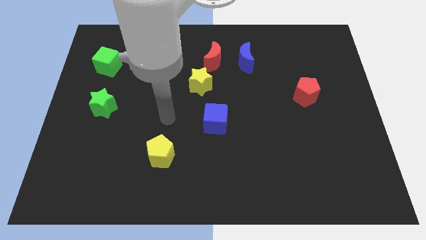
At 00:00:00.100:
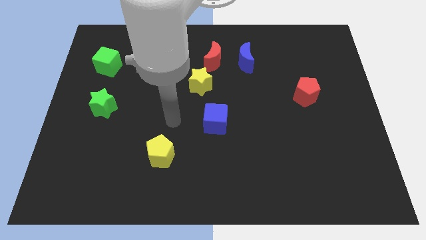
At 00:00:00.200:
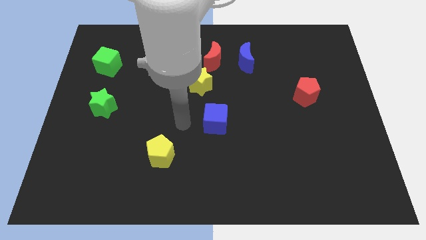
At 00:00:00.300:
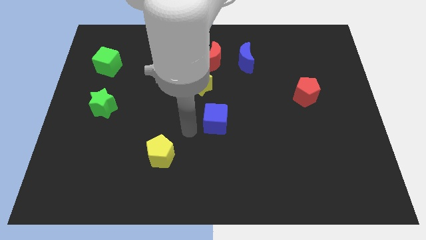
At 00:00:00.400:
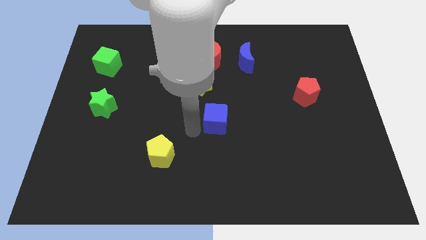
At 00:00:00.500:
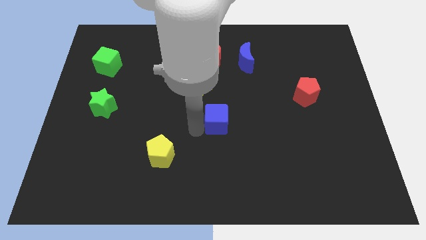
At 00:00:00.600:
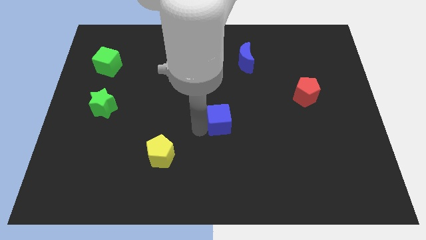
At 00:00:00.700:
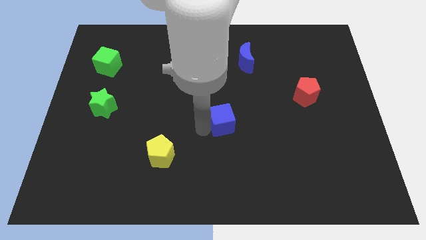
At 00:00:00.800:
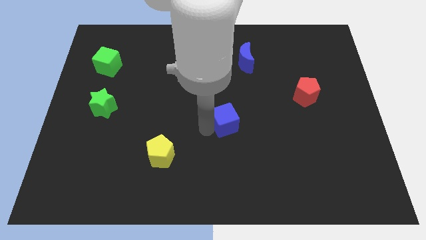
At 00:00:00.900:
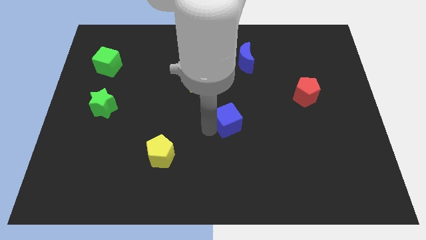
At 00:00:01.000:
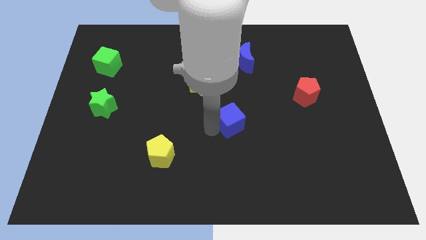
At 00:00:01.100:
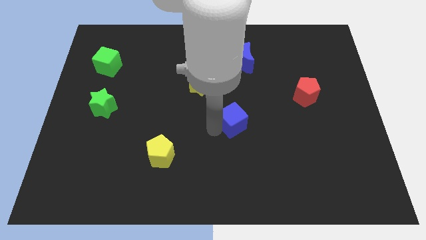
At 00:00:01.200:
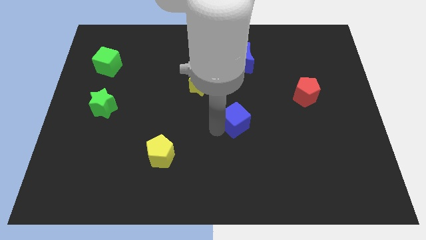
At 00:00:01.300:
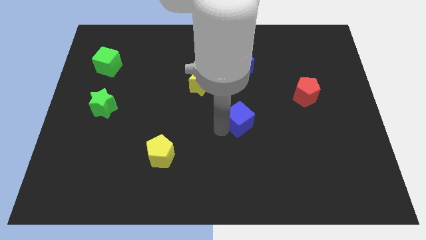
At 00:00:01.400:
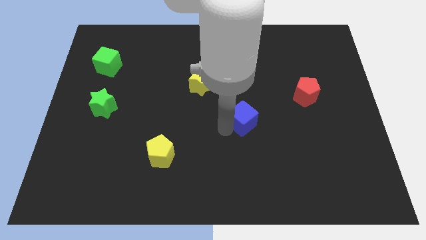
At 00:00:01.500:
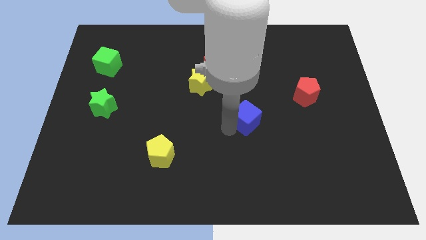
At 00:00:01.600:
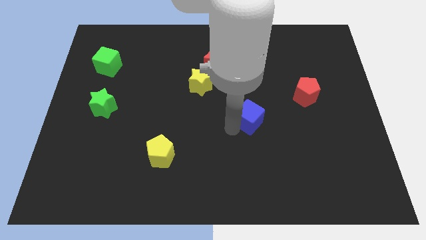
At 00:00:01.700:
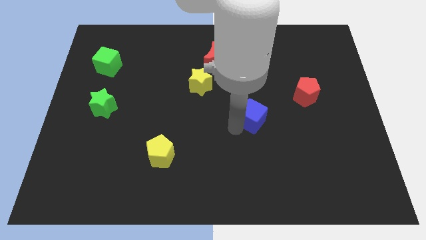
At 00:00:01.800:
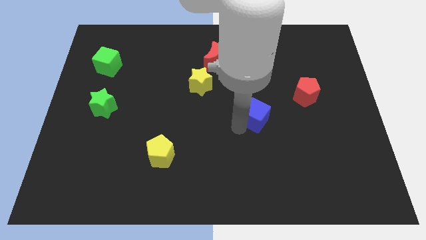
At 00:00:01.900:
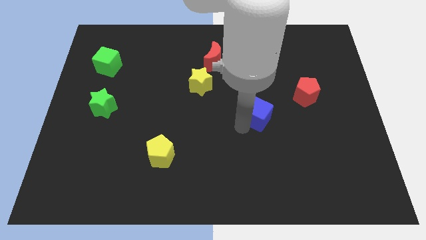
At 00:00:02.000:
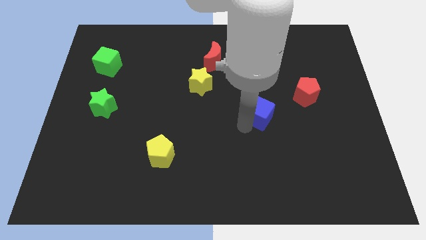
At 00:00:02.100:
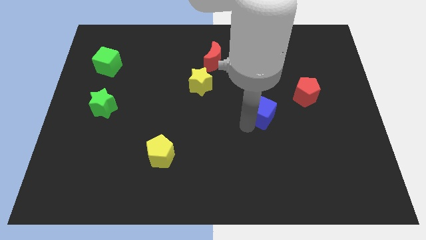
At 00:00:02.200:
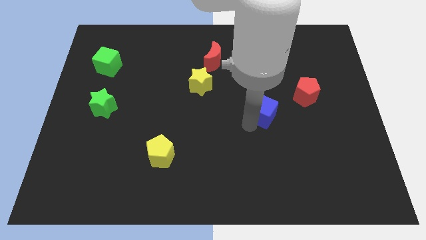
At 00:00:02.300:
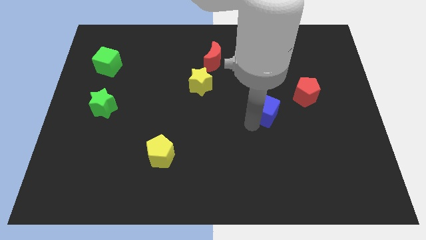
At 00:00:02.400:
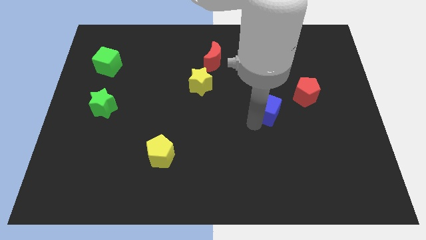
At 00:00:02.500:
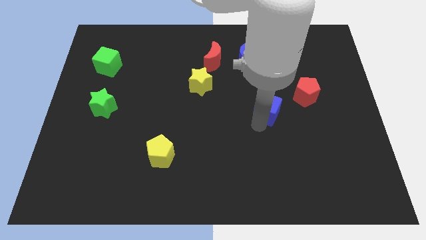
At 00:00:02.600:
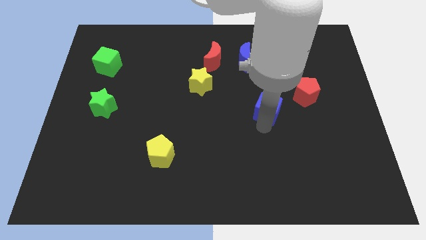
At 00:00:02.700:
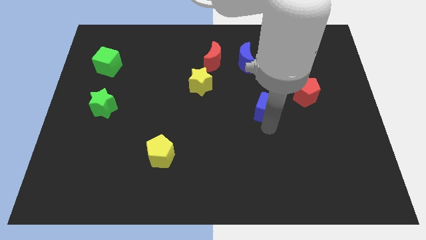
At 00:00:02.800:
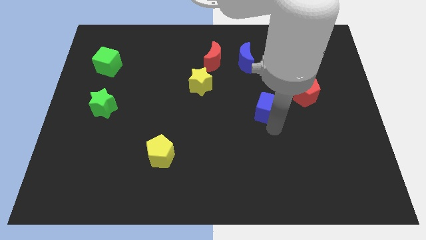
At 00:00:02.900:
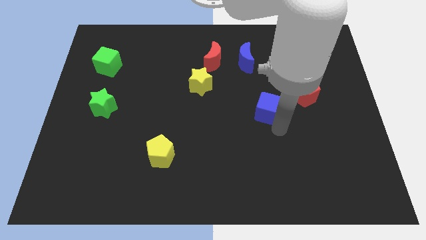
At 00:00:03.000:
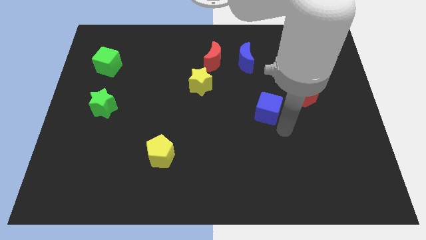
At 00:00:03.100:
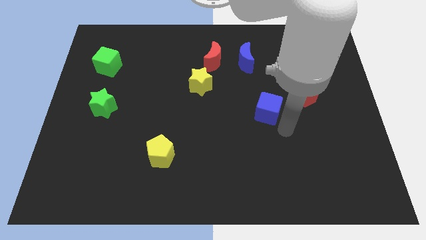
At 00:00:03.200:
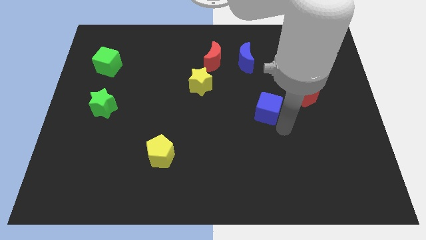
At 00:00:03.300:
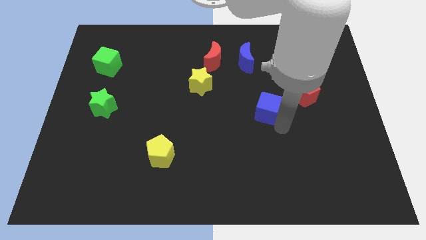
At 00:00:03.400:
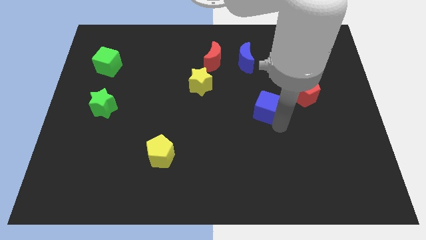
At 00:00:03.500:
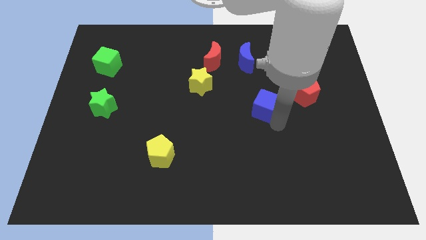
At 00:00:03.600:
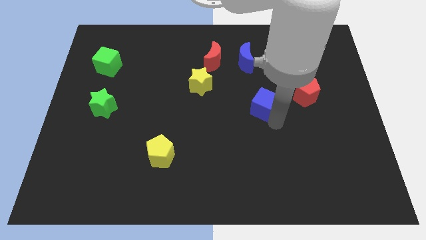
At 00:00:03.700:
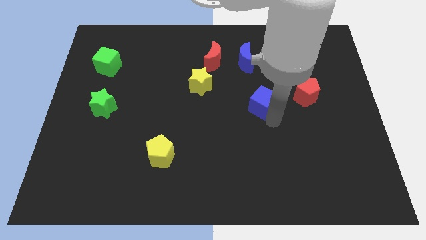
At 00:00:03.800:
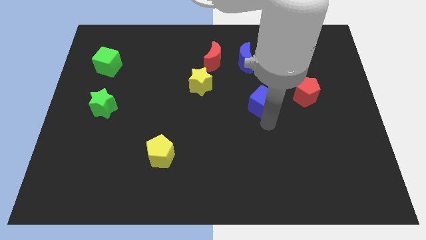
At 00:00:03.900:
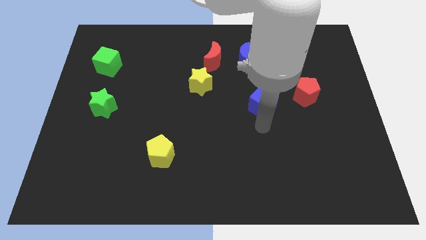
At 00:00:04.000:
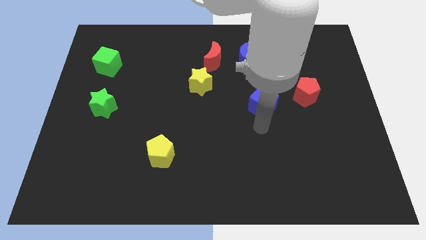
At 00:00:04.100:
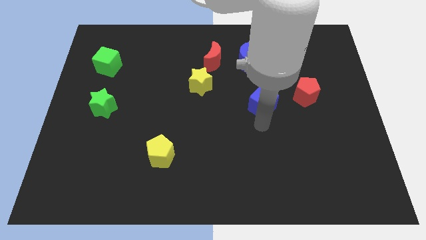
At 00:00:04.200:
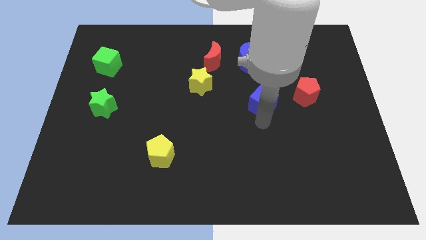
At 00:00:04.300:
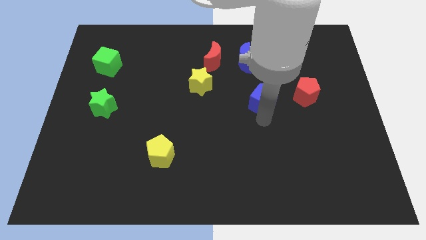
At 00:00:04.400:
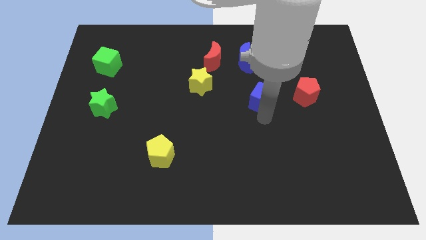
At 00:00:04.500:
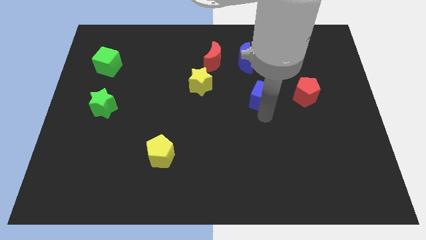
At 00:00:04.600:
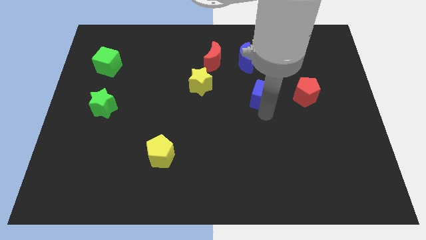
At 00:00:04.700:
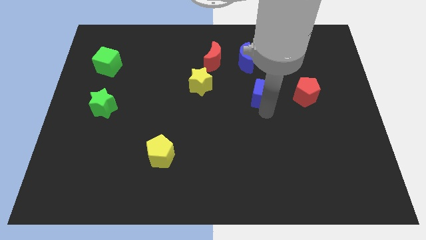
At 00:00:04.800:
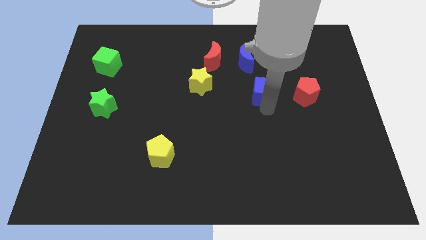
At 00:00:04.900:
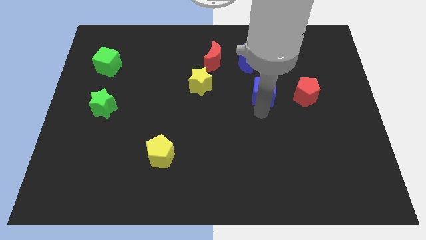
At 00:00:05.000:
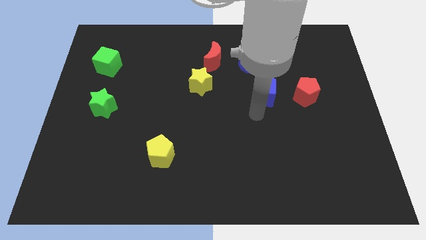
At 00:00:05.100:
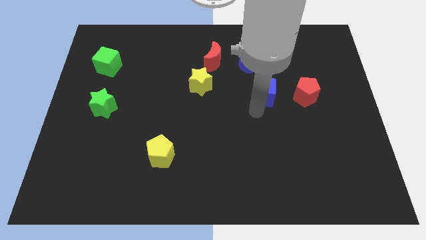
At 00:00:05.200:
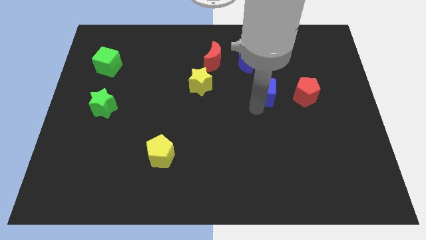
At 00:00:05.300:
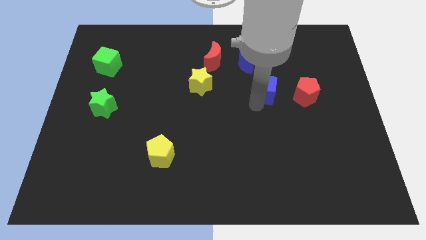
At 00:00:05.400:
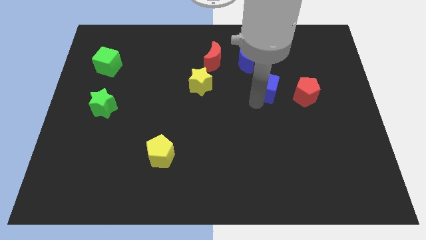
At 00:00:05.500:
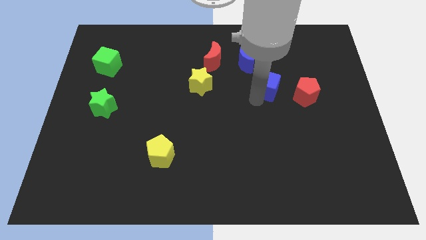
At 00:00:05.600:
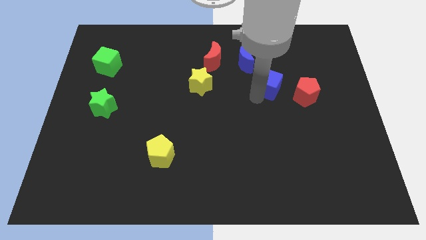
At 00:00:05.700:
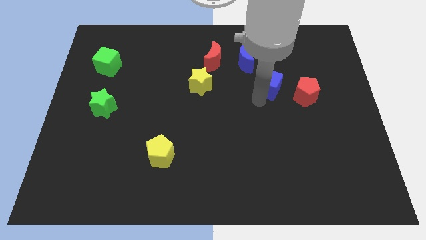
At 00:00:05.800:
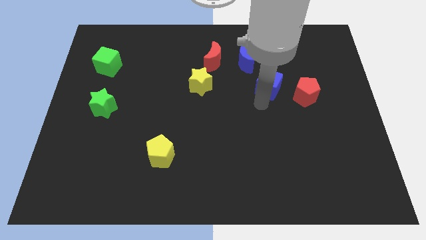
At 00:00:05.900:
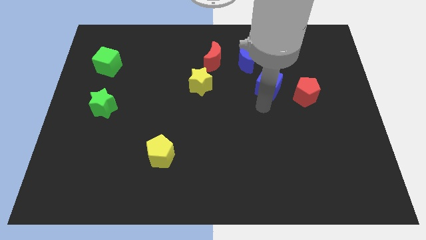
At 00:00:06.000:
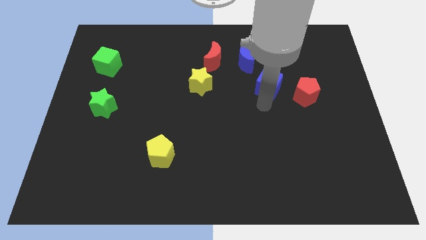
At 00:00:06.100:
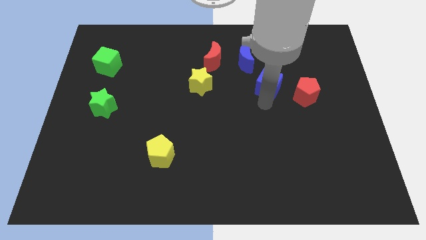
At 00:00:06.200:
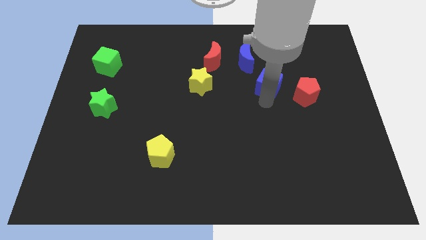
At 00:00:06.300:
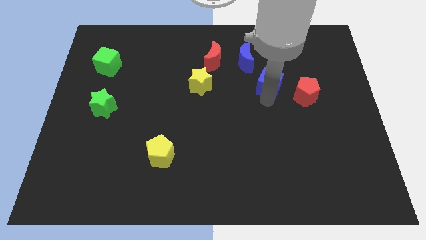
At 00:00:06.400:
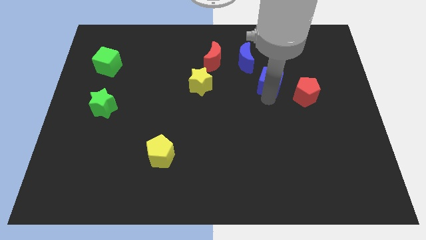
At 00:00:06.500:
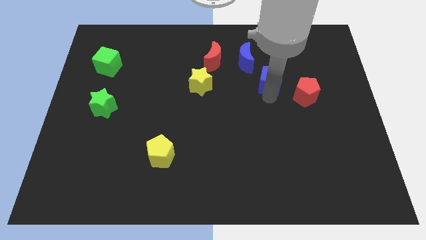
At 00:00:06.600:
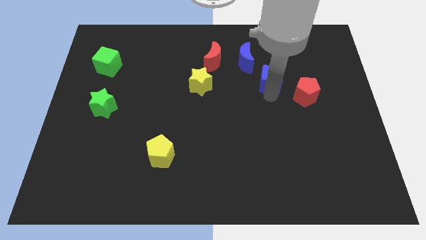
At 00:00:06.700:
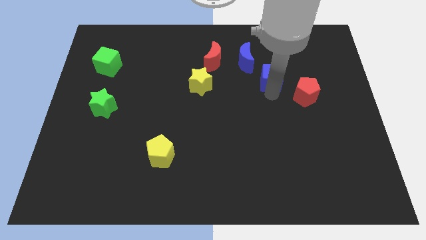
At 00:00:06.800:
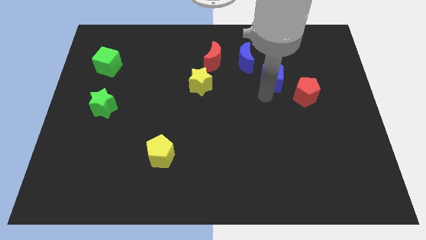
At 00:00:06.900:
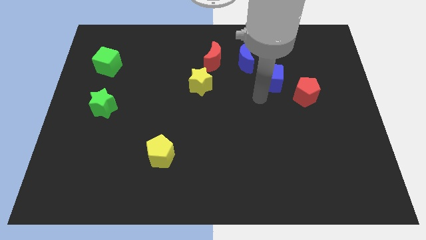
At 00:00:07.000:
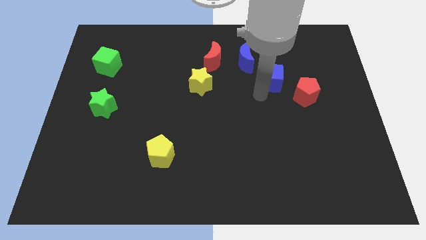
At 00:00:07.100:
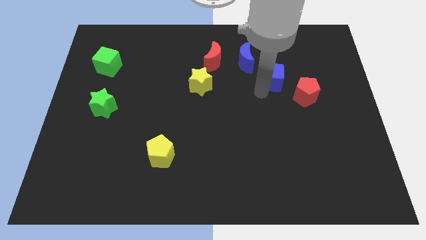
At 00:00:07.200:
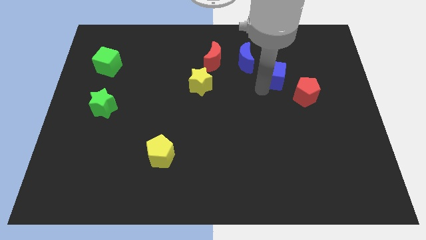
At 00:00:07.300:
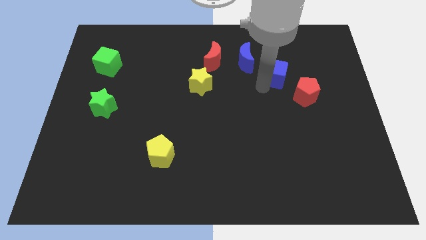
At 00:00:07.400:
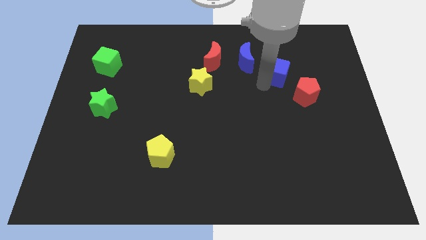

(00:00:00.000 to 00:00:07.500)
push the blue cube just right of the blue moon
